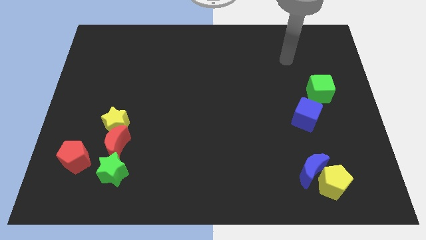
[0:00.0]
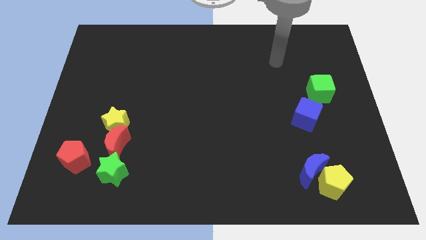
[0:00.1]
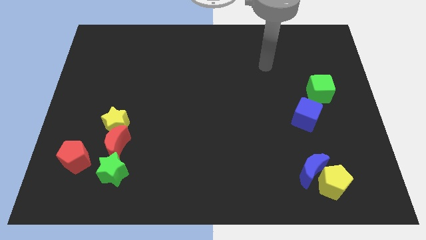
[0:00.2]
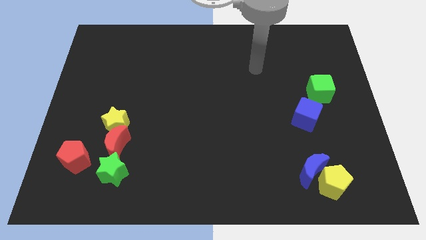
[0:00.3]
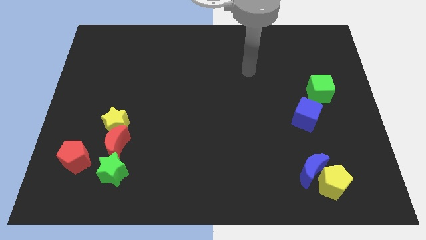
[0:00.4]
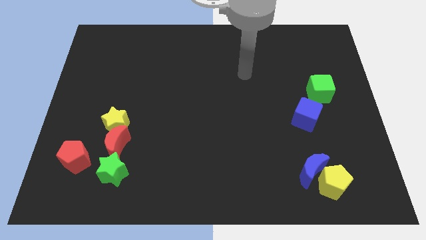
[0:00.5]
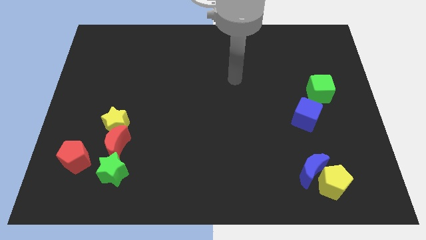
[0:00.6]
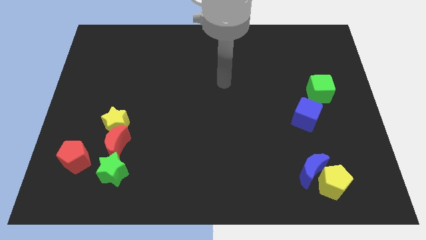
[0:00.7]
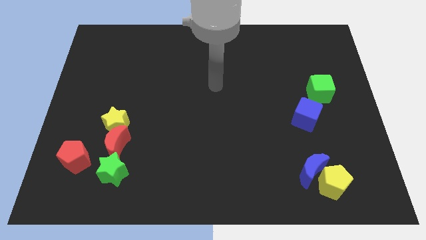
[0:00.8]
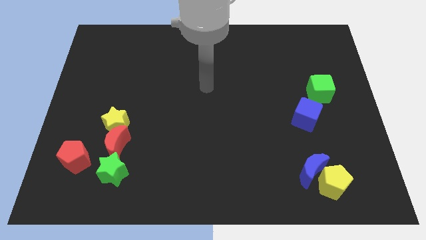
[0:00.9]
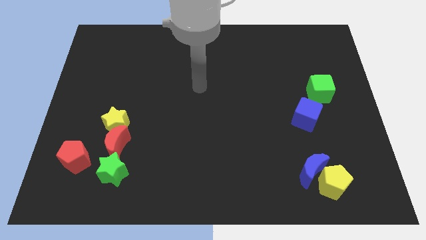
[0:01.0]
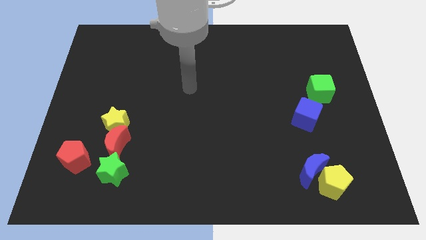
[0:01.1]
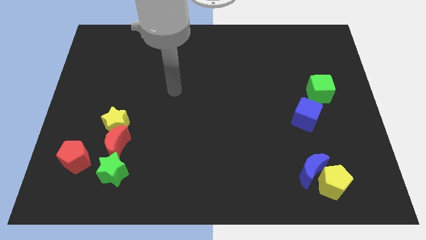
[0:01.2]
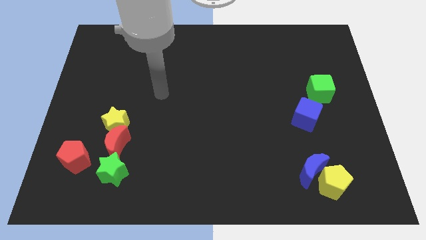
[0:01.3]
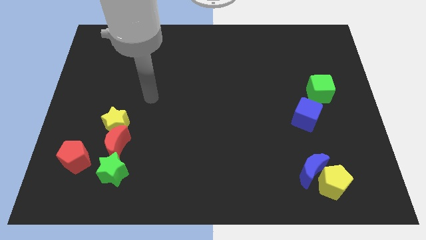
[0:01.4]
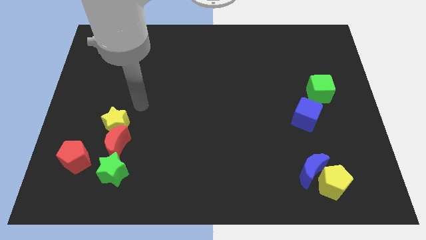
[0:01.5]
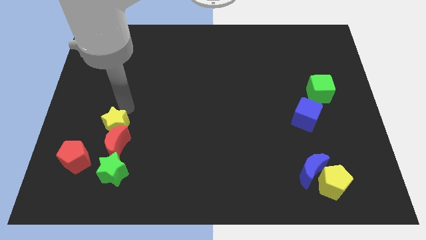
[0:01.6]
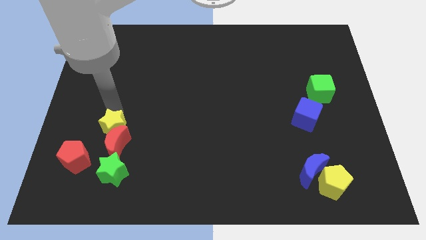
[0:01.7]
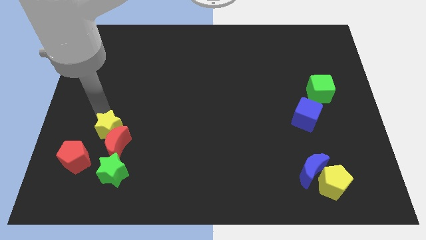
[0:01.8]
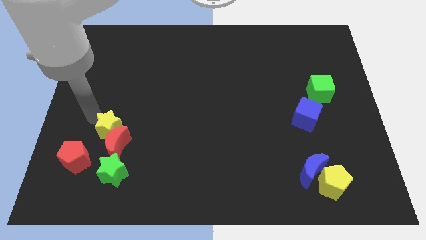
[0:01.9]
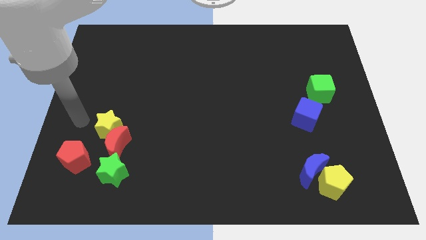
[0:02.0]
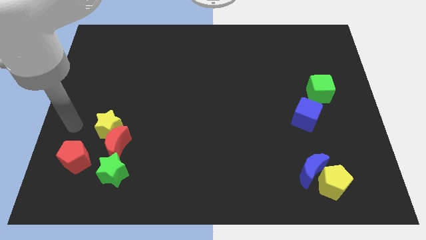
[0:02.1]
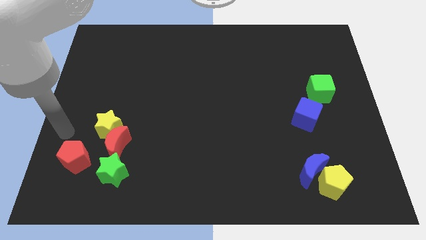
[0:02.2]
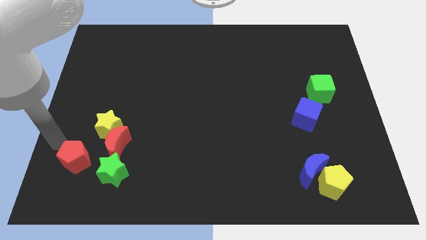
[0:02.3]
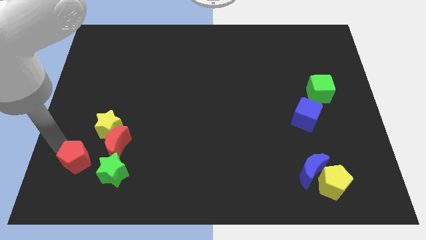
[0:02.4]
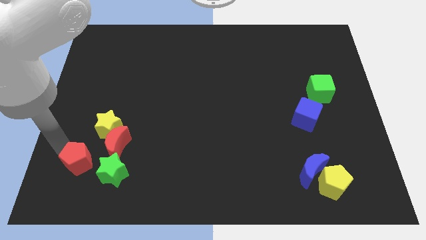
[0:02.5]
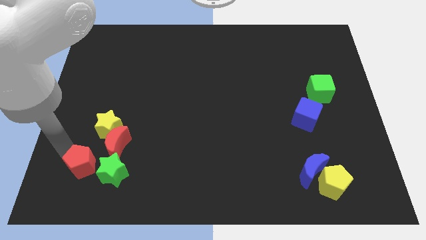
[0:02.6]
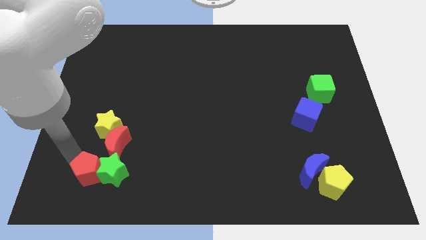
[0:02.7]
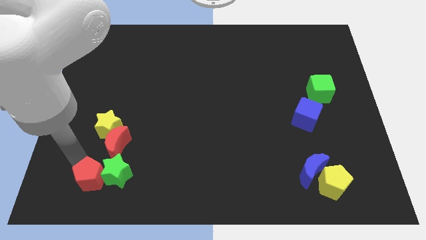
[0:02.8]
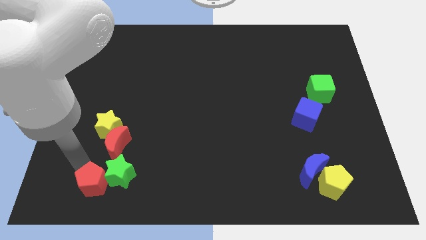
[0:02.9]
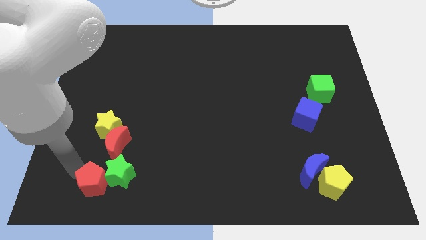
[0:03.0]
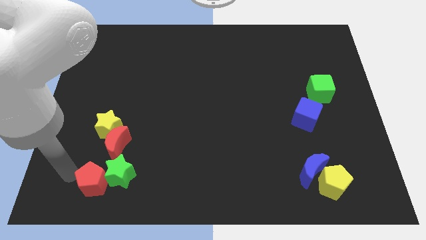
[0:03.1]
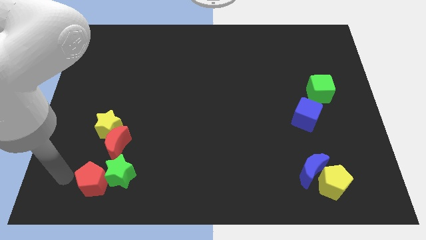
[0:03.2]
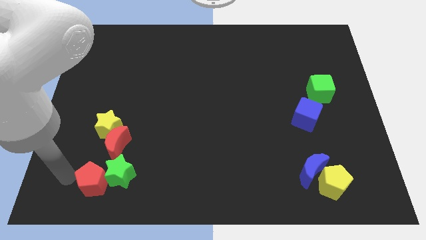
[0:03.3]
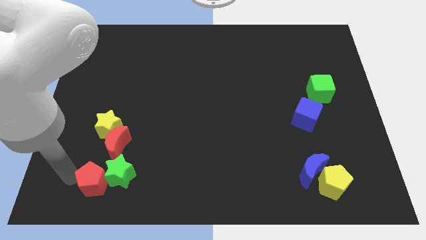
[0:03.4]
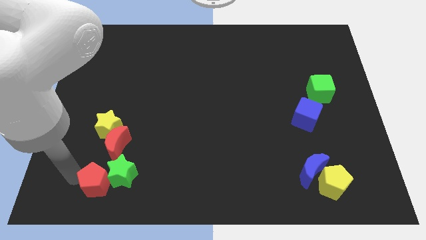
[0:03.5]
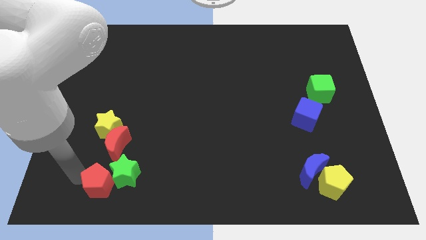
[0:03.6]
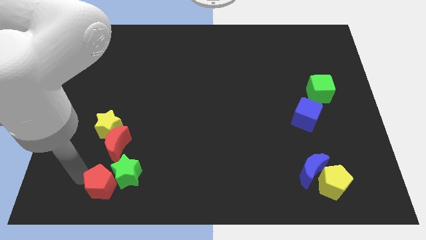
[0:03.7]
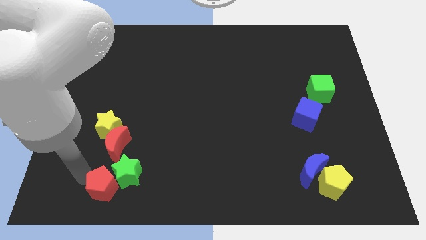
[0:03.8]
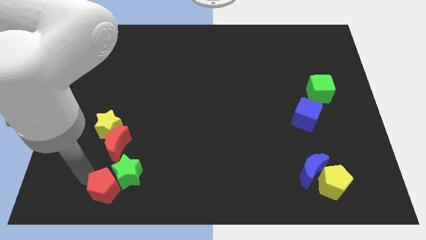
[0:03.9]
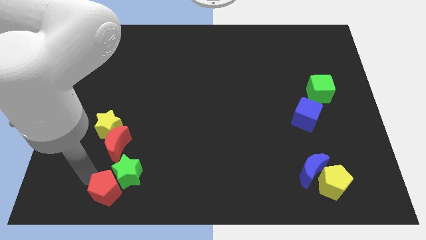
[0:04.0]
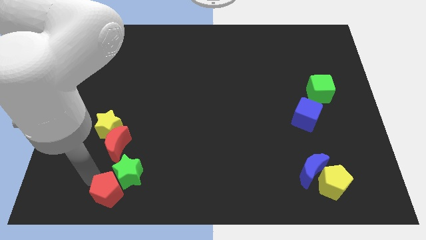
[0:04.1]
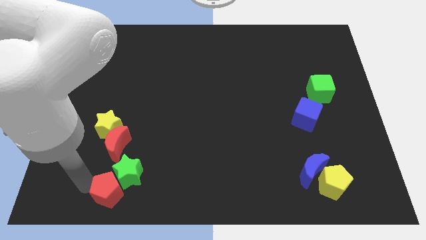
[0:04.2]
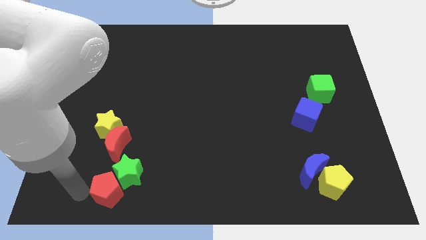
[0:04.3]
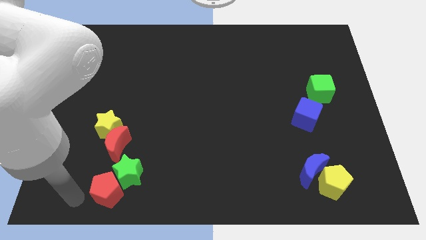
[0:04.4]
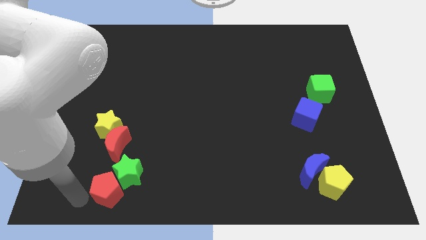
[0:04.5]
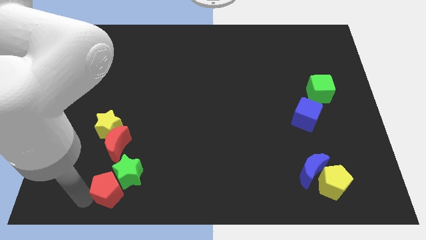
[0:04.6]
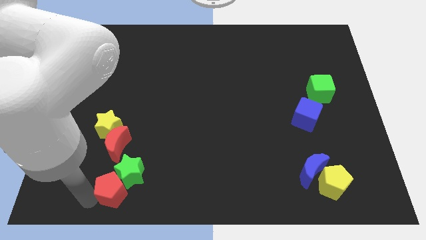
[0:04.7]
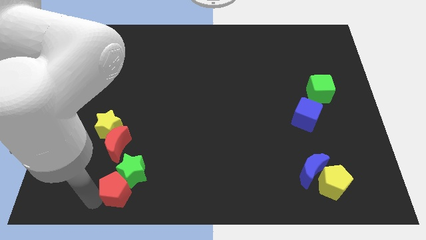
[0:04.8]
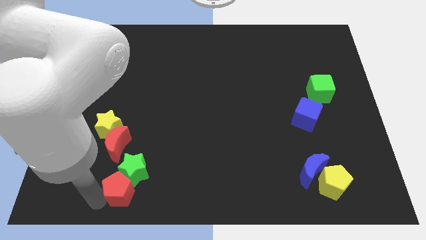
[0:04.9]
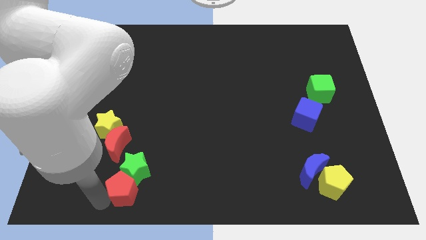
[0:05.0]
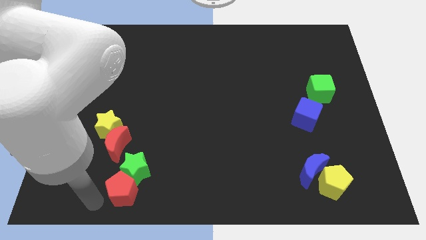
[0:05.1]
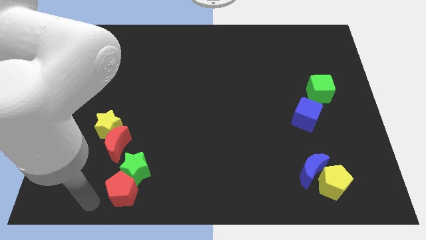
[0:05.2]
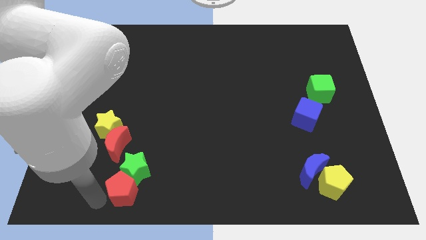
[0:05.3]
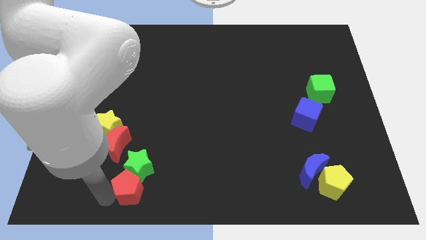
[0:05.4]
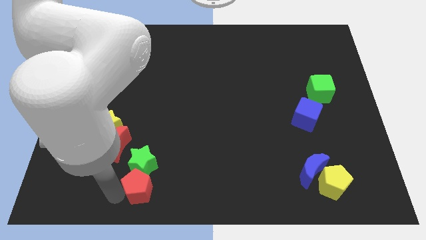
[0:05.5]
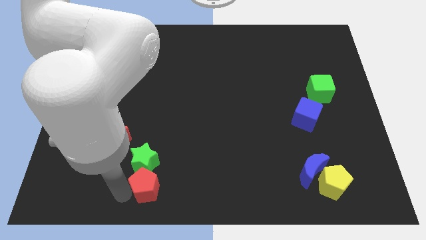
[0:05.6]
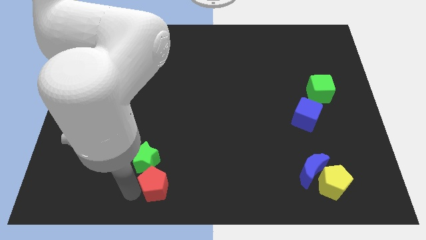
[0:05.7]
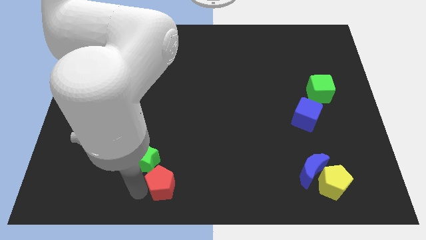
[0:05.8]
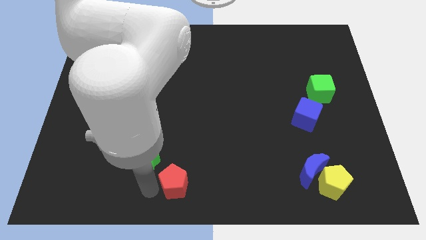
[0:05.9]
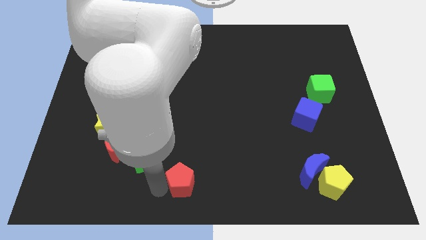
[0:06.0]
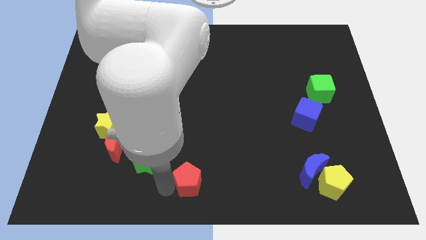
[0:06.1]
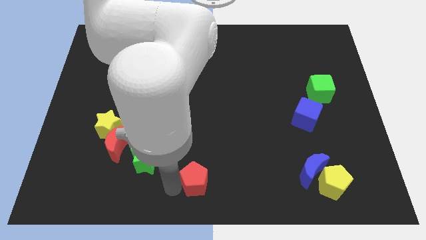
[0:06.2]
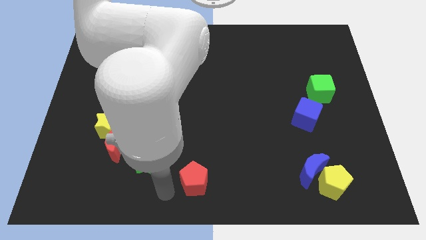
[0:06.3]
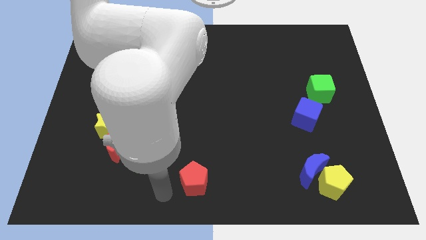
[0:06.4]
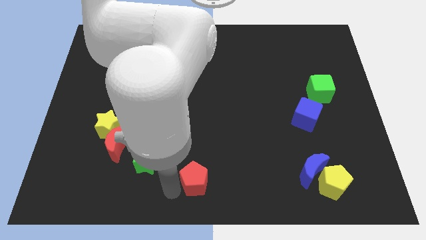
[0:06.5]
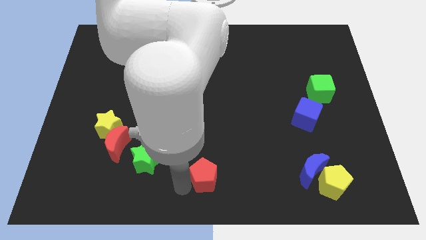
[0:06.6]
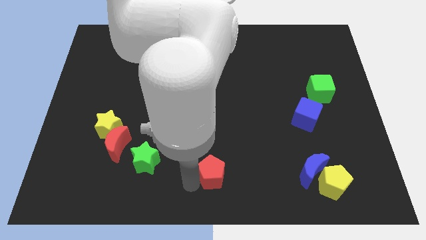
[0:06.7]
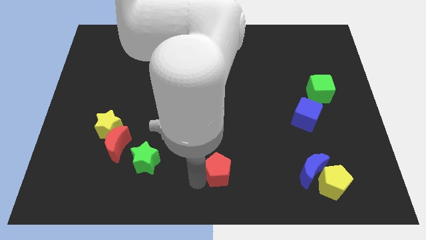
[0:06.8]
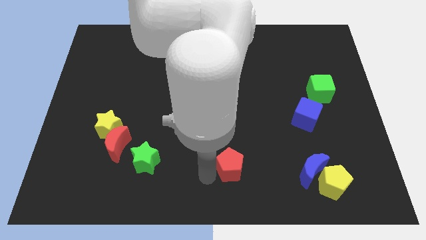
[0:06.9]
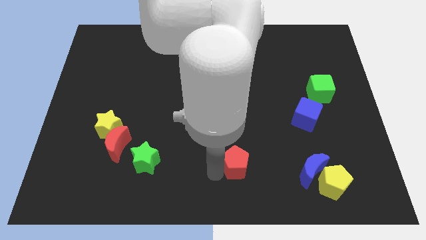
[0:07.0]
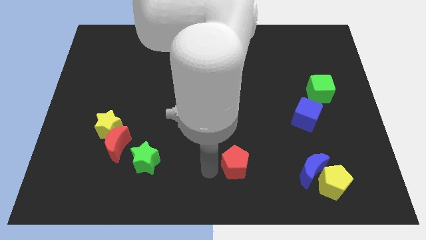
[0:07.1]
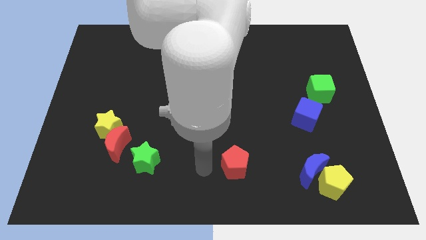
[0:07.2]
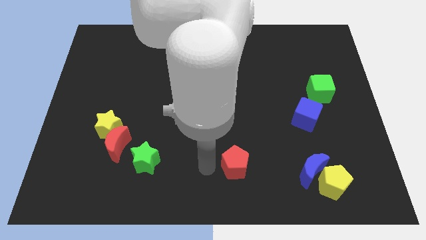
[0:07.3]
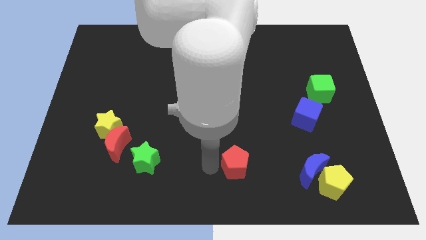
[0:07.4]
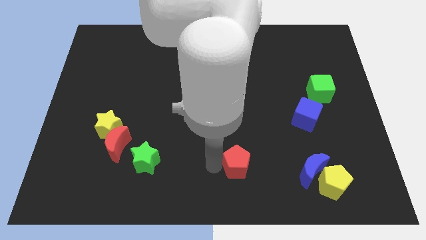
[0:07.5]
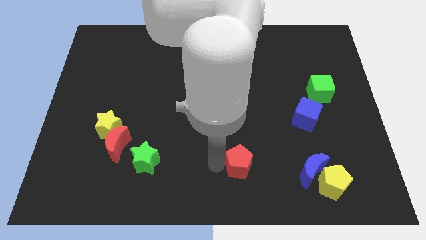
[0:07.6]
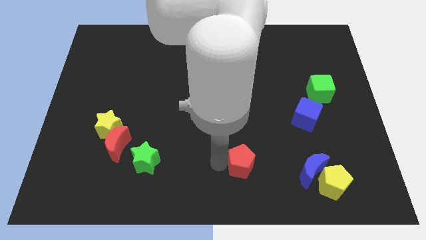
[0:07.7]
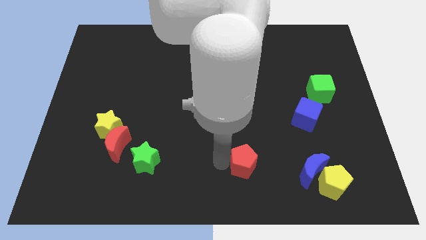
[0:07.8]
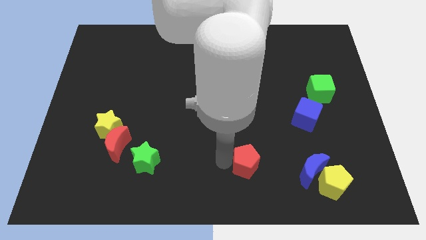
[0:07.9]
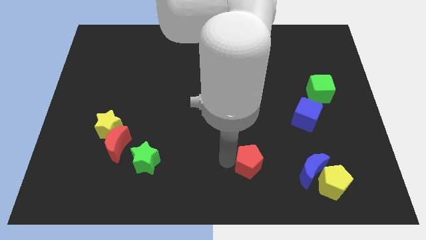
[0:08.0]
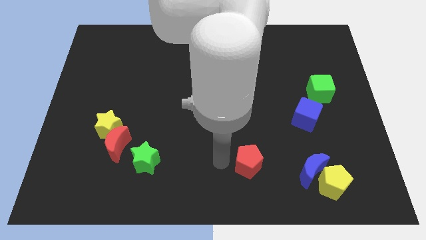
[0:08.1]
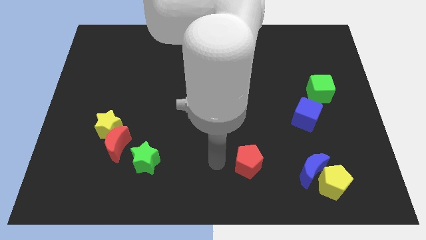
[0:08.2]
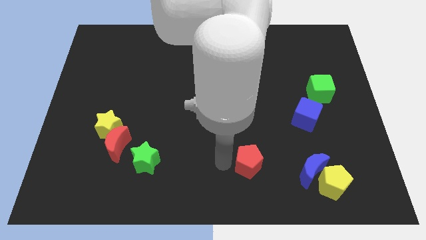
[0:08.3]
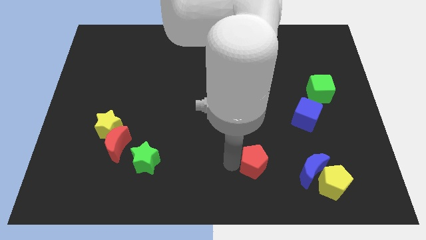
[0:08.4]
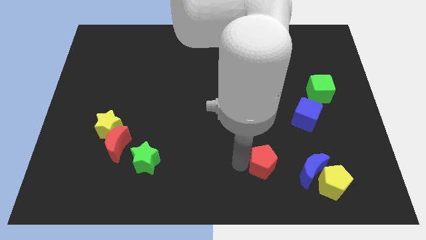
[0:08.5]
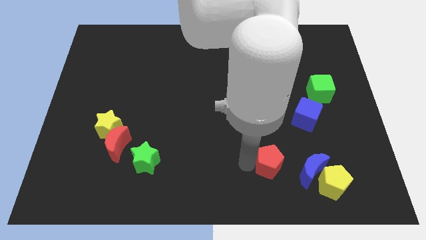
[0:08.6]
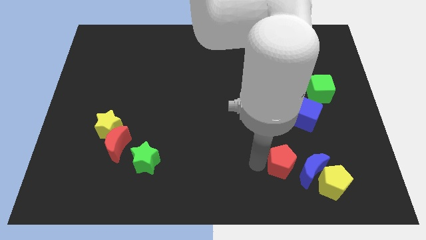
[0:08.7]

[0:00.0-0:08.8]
put the red pentagon close to the blue moon
